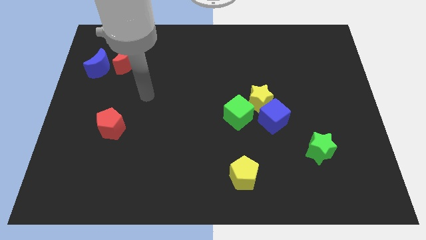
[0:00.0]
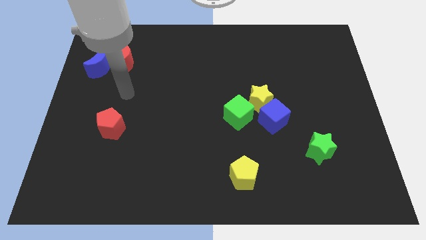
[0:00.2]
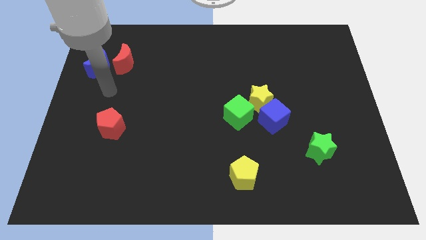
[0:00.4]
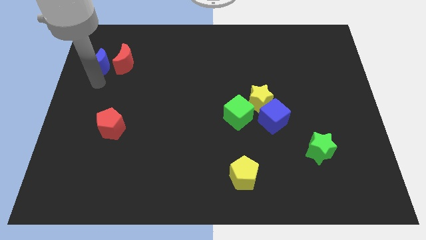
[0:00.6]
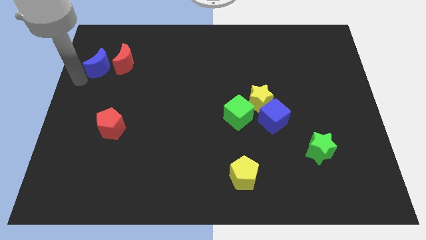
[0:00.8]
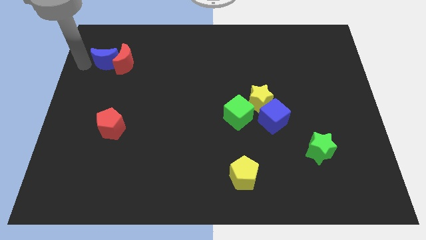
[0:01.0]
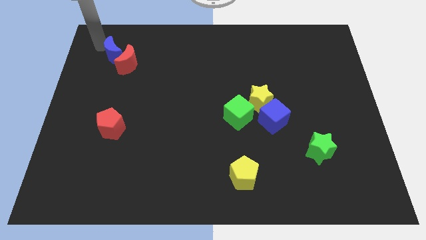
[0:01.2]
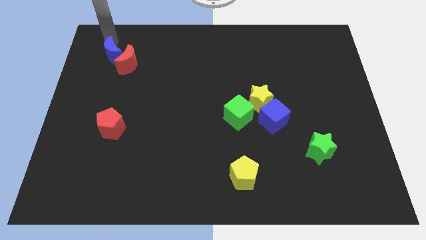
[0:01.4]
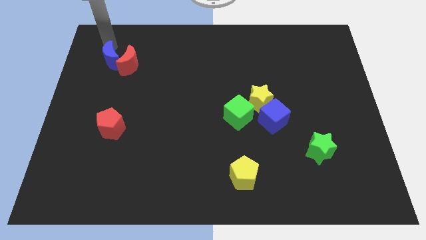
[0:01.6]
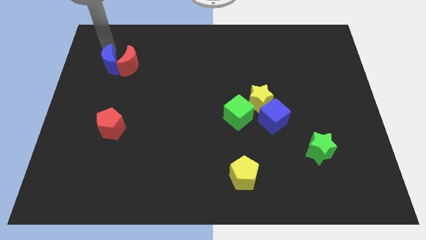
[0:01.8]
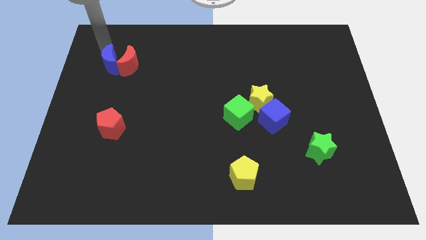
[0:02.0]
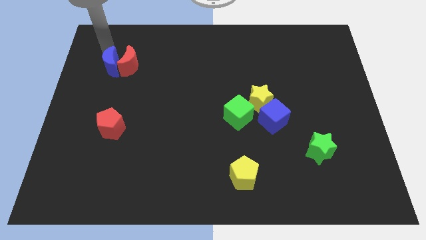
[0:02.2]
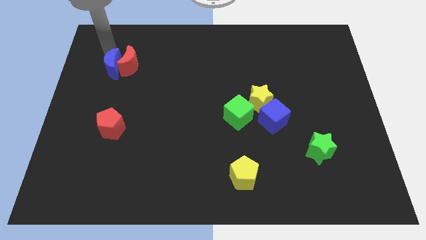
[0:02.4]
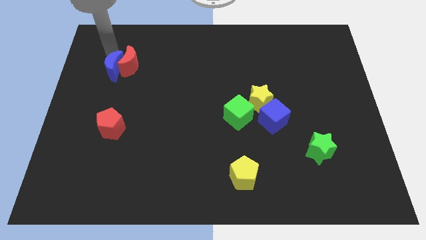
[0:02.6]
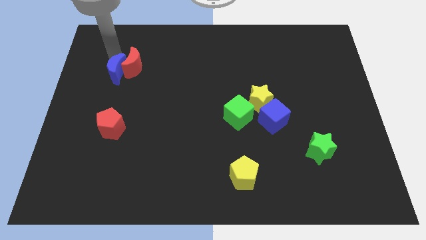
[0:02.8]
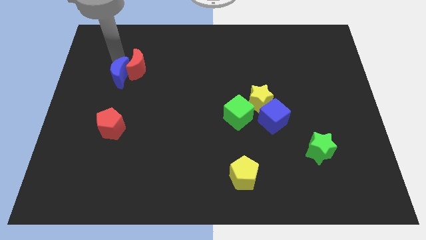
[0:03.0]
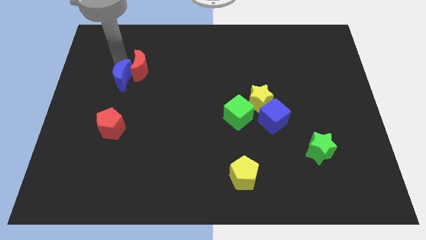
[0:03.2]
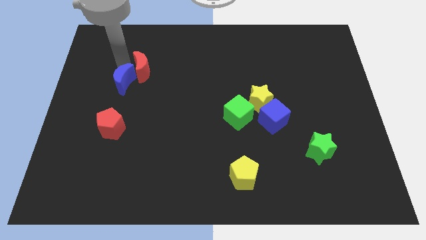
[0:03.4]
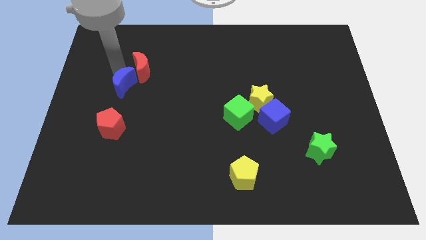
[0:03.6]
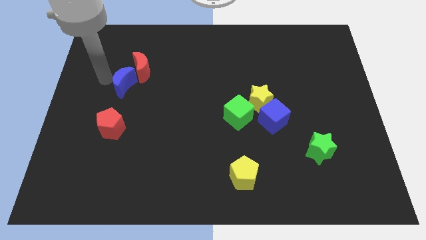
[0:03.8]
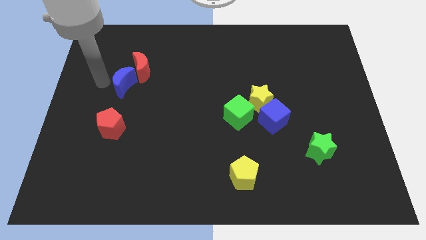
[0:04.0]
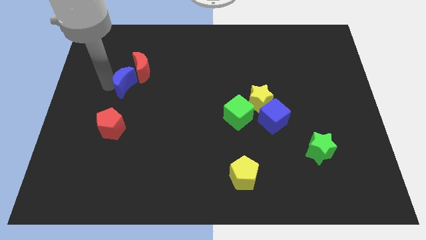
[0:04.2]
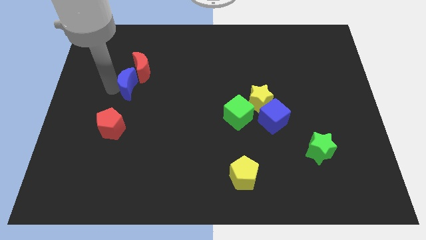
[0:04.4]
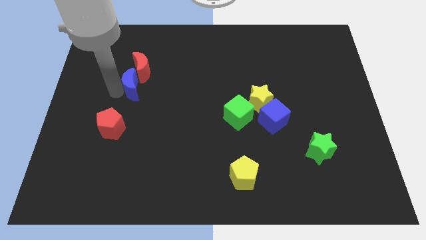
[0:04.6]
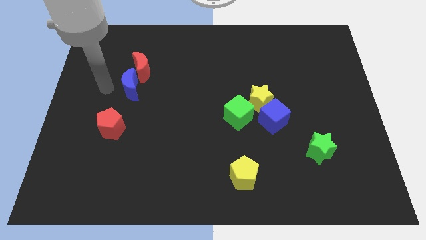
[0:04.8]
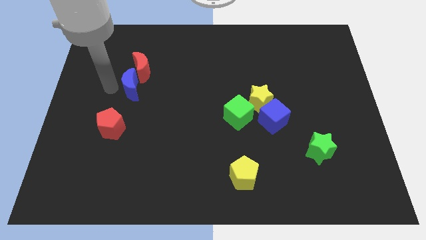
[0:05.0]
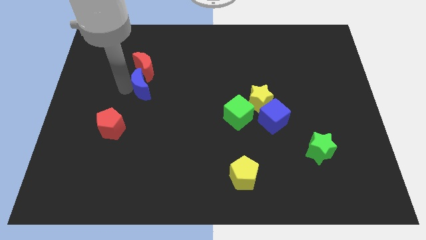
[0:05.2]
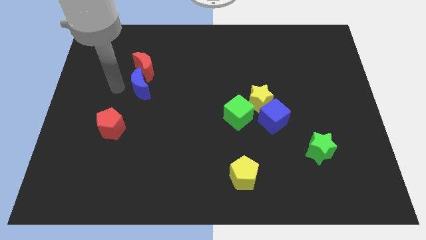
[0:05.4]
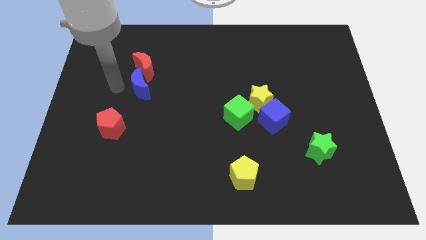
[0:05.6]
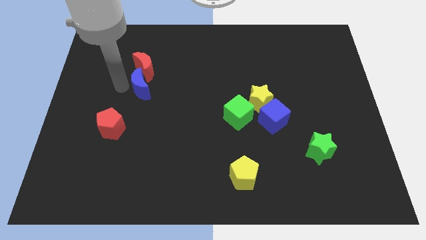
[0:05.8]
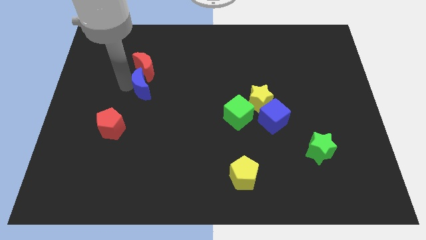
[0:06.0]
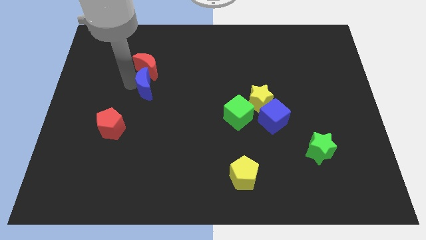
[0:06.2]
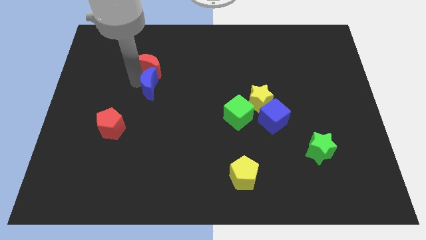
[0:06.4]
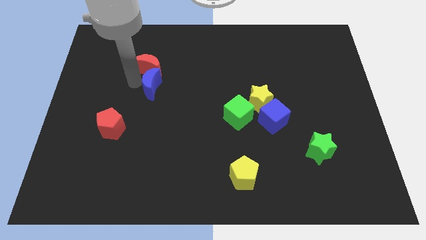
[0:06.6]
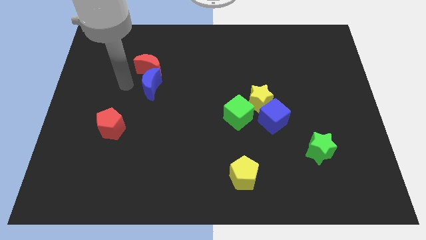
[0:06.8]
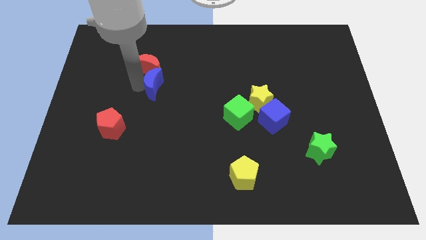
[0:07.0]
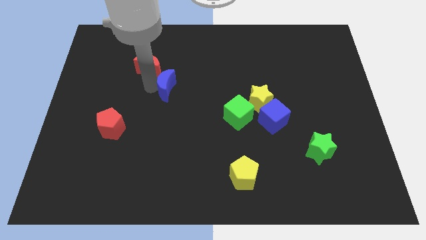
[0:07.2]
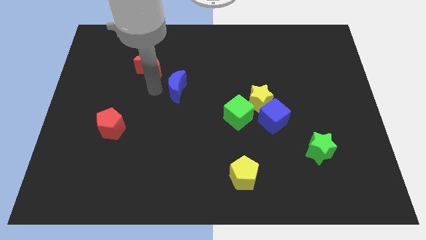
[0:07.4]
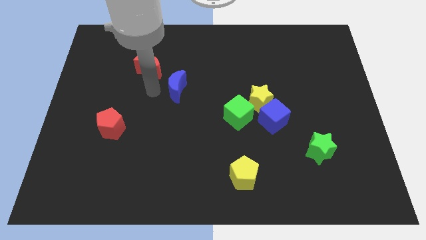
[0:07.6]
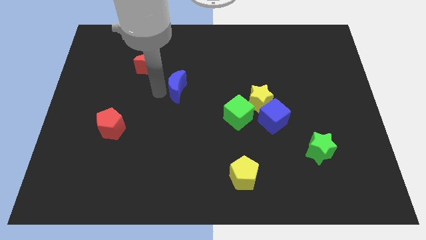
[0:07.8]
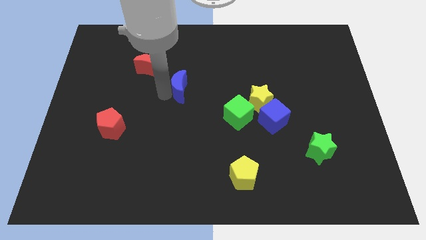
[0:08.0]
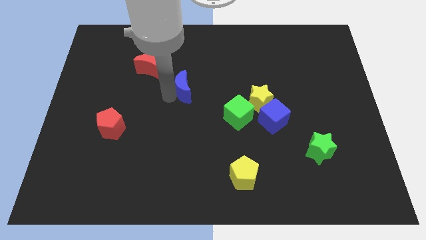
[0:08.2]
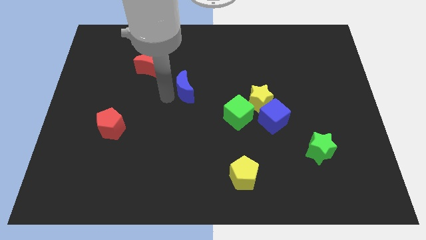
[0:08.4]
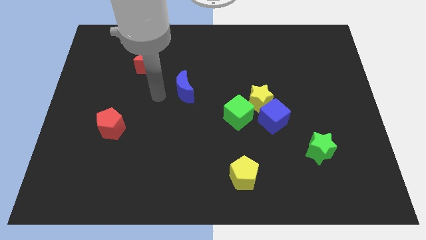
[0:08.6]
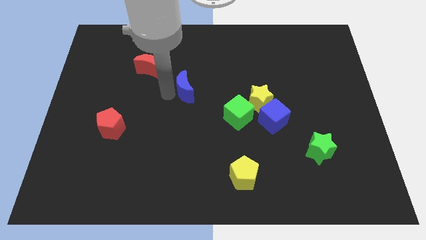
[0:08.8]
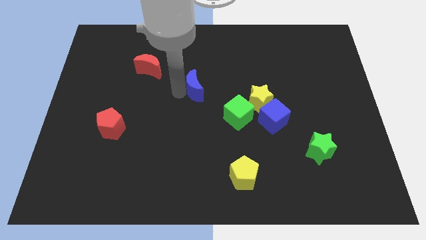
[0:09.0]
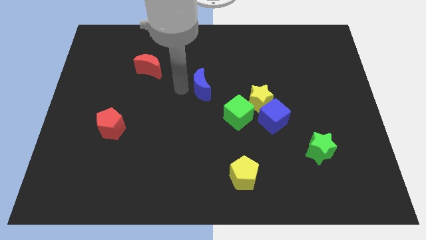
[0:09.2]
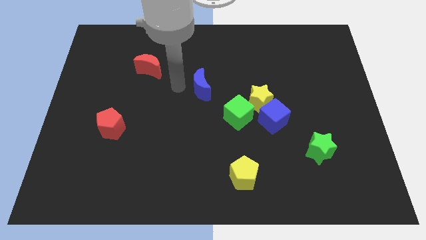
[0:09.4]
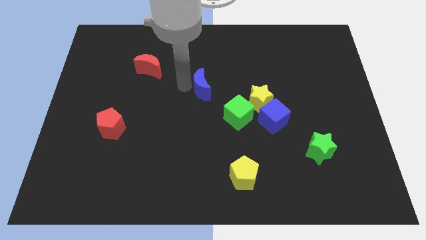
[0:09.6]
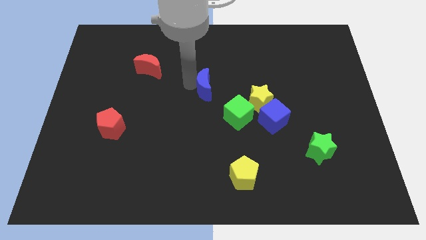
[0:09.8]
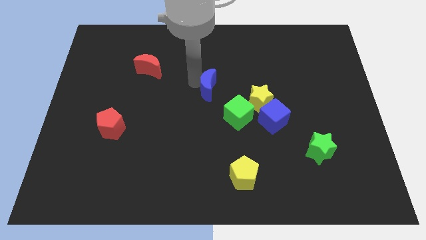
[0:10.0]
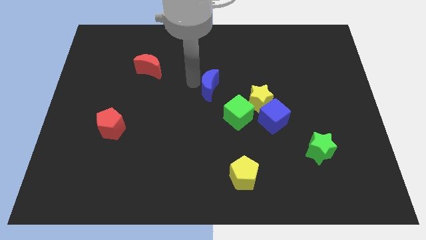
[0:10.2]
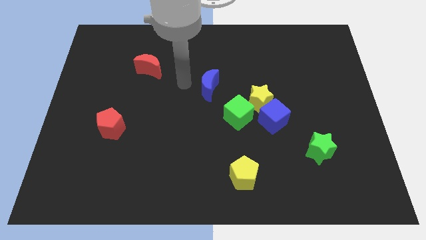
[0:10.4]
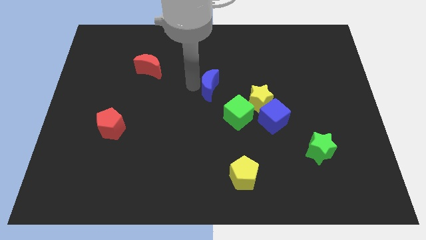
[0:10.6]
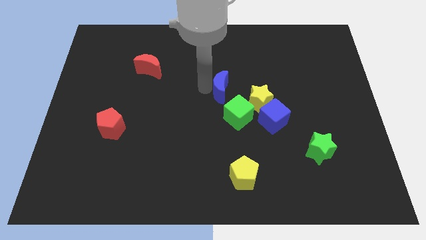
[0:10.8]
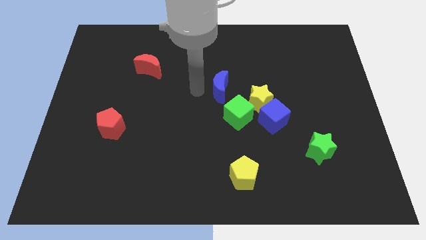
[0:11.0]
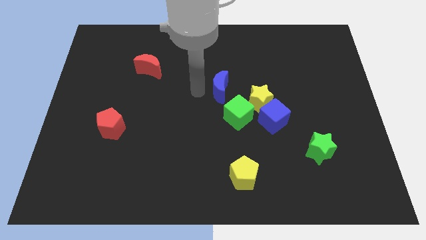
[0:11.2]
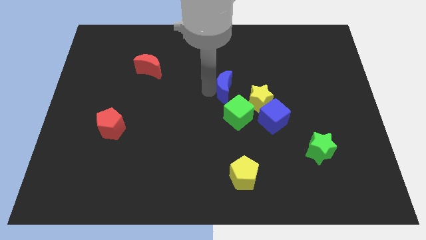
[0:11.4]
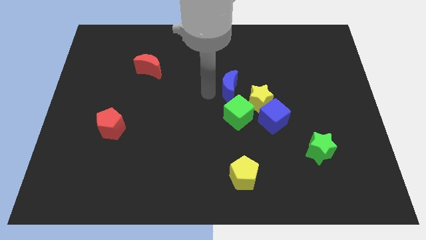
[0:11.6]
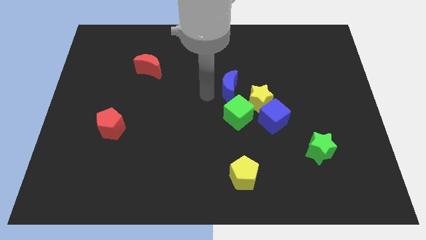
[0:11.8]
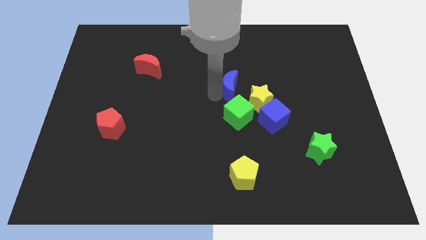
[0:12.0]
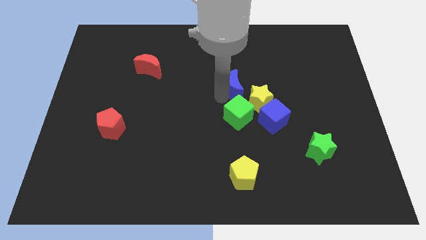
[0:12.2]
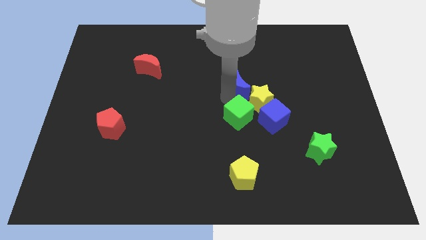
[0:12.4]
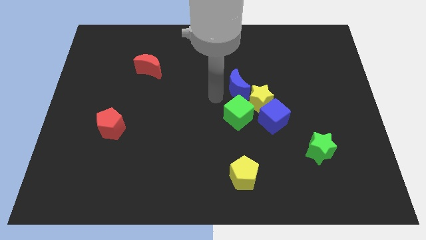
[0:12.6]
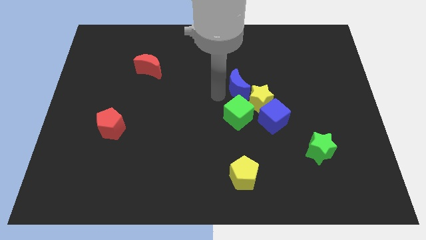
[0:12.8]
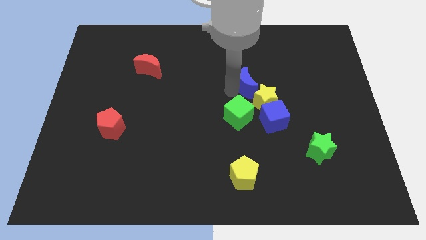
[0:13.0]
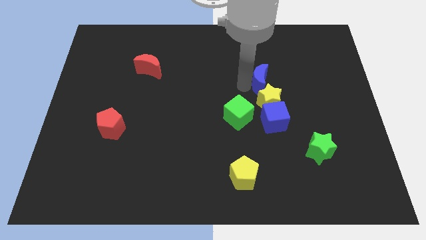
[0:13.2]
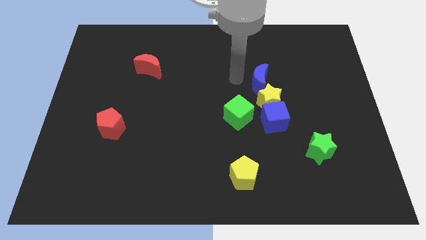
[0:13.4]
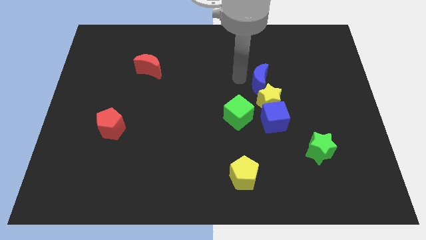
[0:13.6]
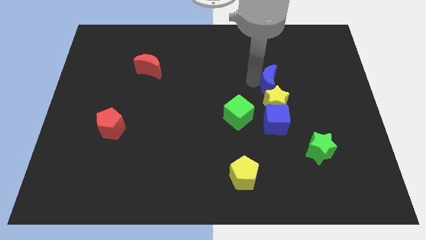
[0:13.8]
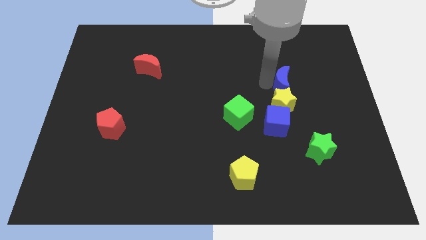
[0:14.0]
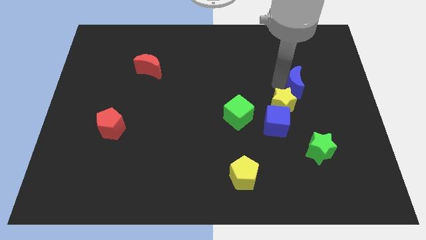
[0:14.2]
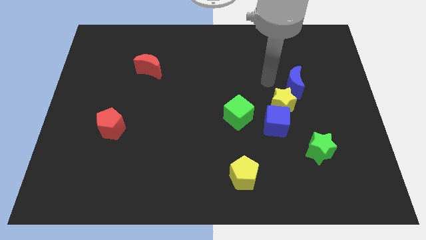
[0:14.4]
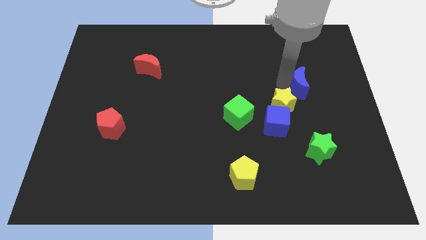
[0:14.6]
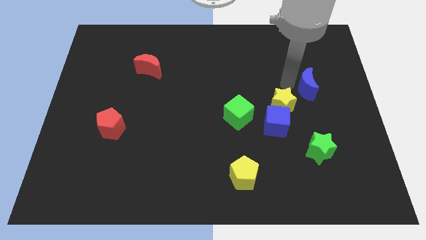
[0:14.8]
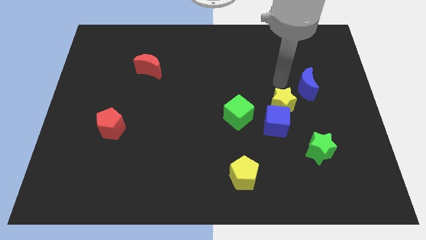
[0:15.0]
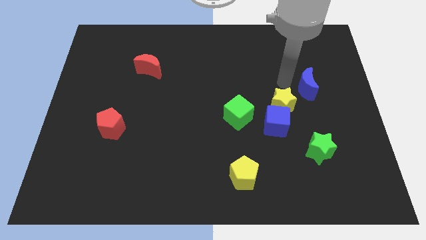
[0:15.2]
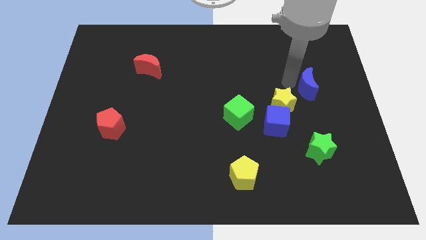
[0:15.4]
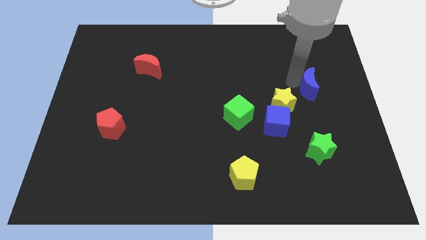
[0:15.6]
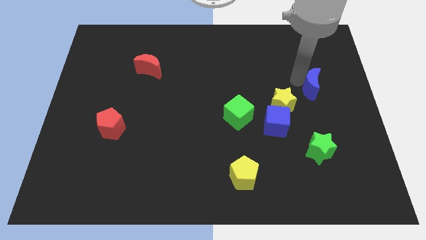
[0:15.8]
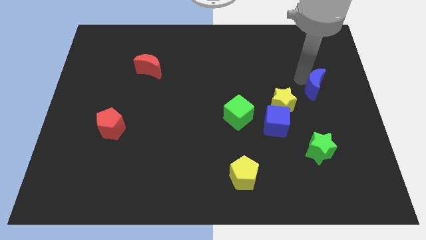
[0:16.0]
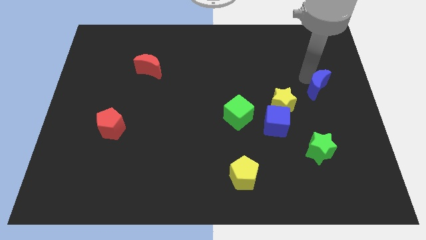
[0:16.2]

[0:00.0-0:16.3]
slide the blue moon to the right side
